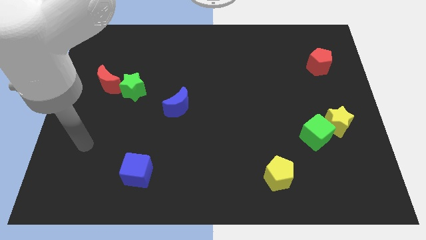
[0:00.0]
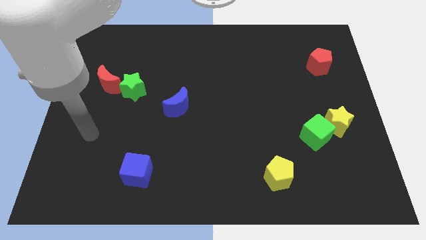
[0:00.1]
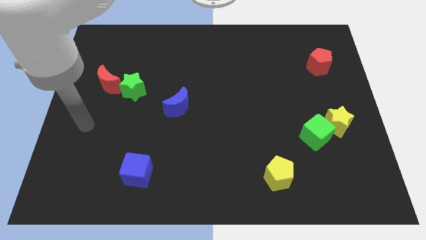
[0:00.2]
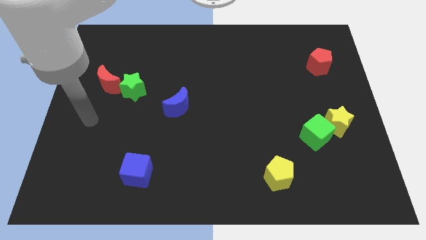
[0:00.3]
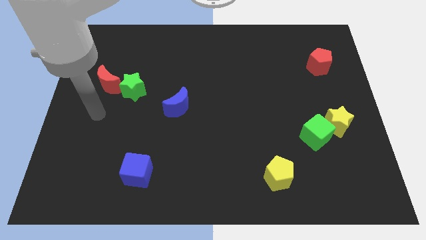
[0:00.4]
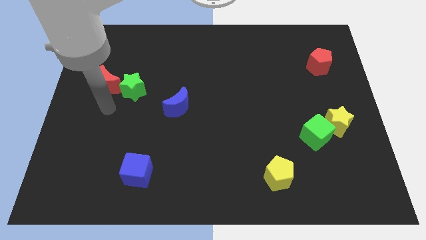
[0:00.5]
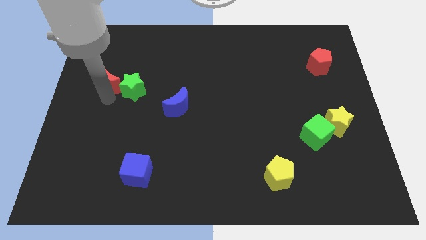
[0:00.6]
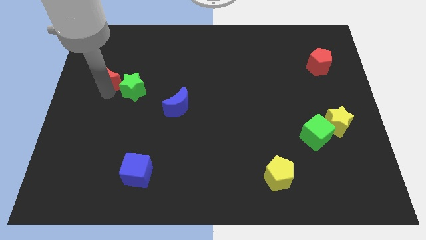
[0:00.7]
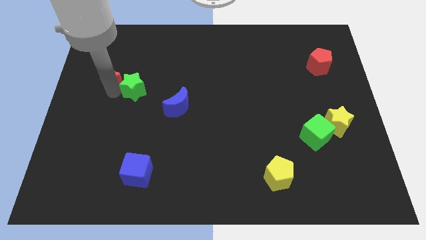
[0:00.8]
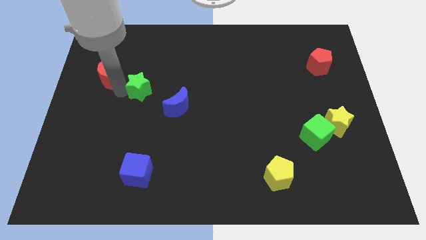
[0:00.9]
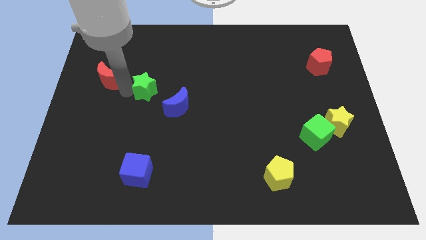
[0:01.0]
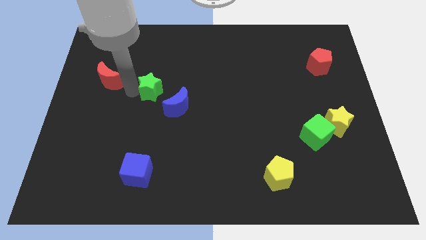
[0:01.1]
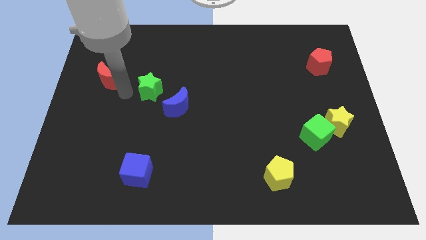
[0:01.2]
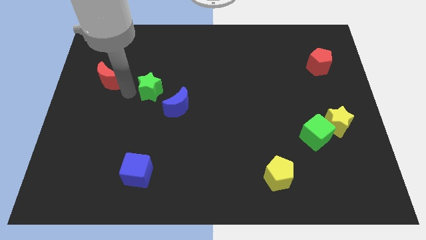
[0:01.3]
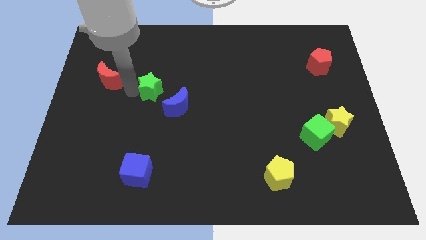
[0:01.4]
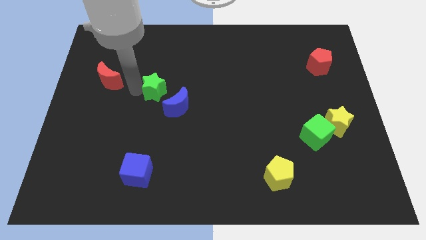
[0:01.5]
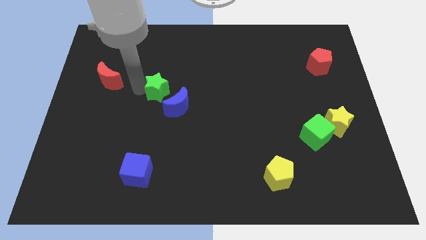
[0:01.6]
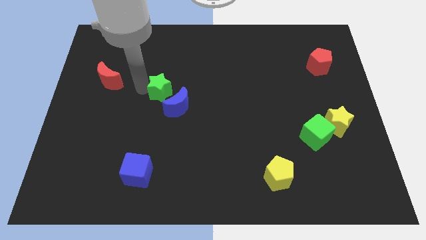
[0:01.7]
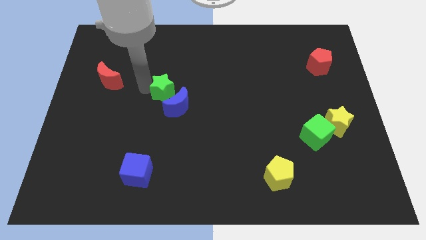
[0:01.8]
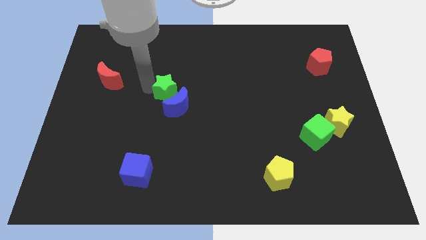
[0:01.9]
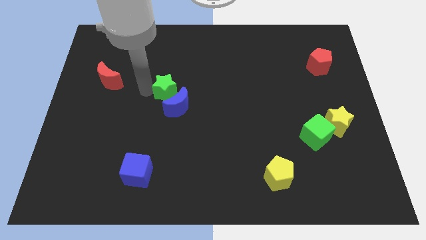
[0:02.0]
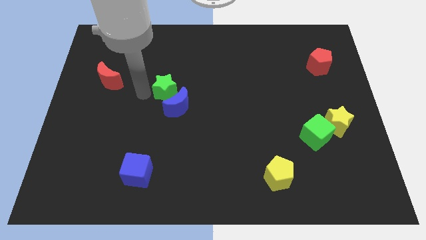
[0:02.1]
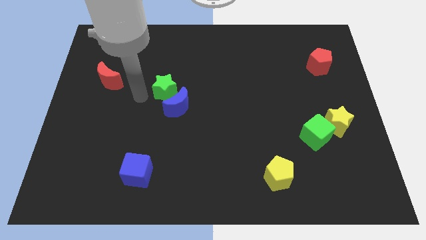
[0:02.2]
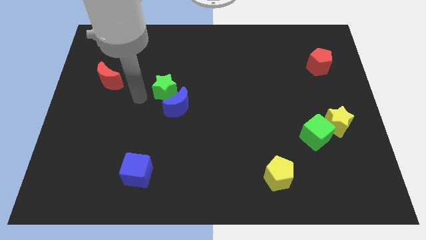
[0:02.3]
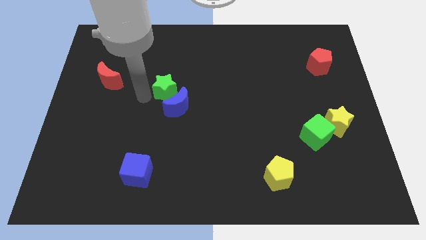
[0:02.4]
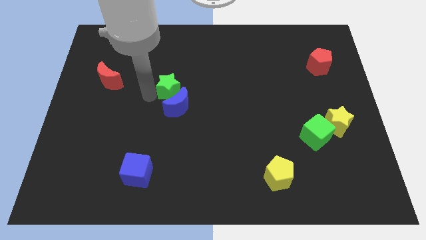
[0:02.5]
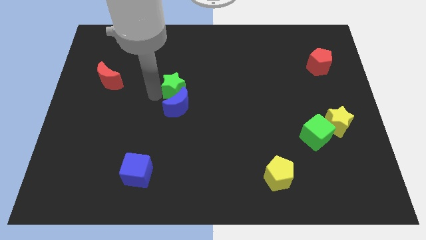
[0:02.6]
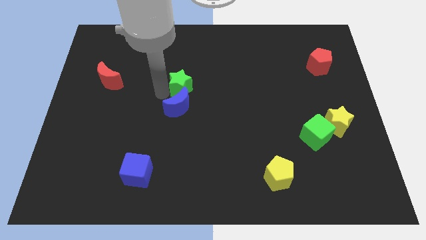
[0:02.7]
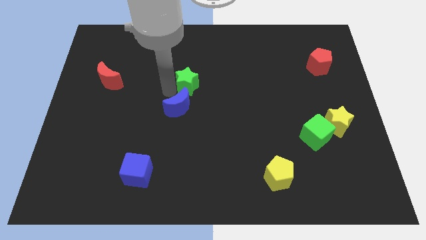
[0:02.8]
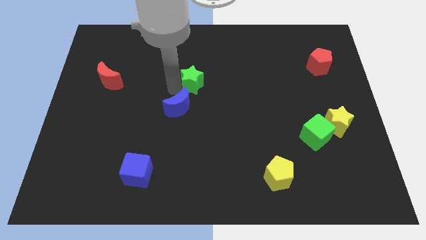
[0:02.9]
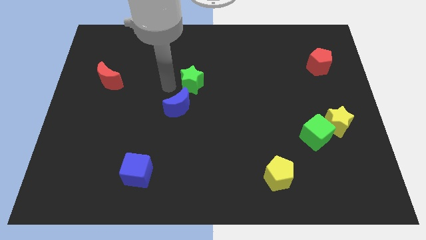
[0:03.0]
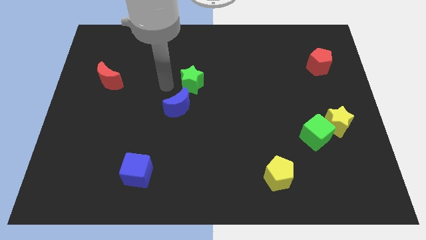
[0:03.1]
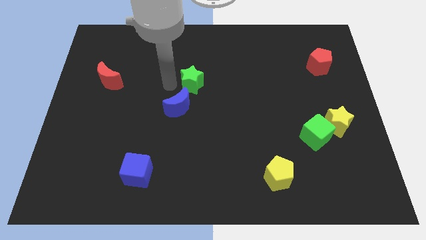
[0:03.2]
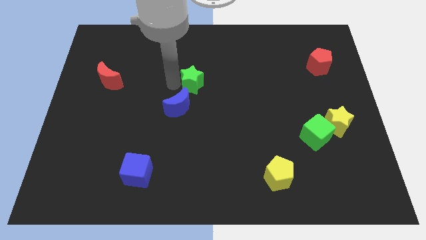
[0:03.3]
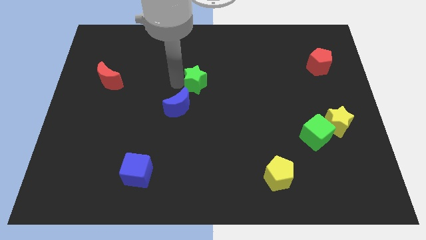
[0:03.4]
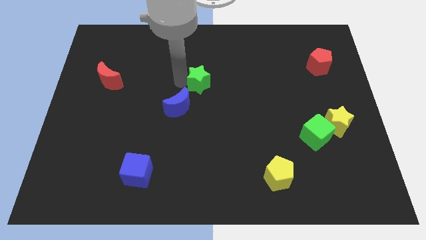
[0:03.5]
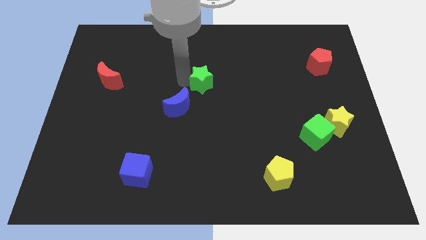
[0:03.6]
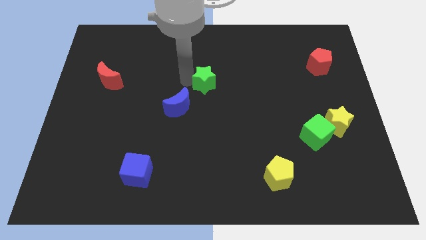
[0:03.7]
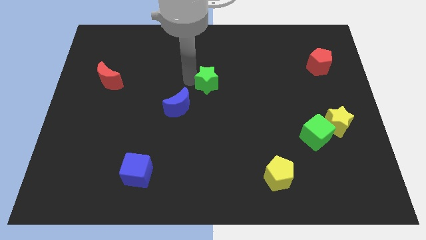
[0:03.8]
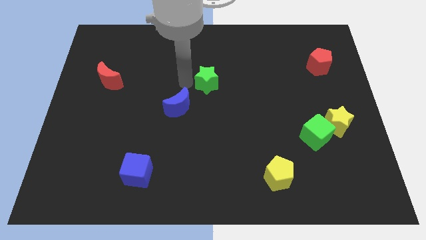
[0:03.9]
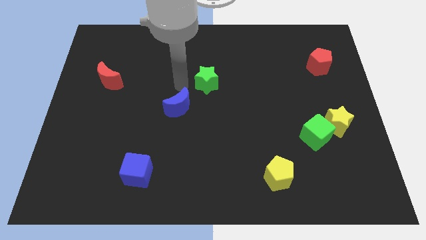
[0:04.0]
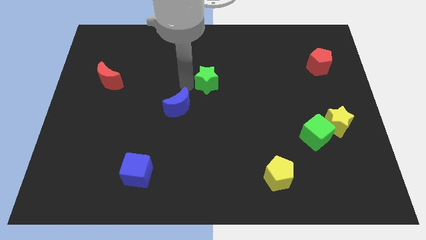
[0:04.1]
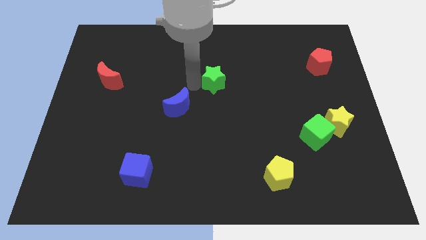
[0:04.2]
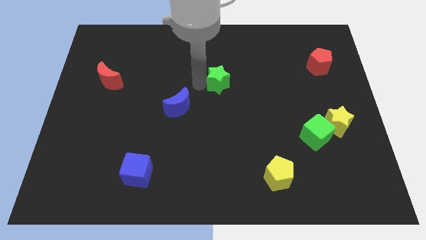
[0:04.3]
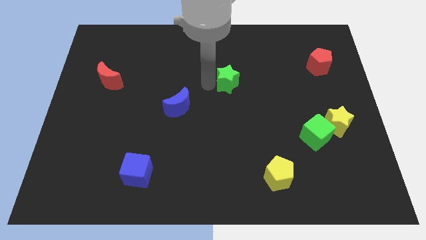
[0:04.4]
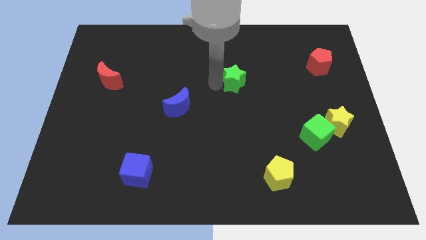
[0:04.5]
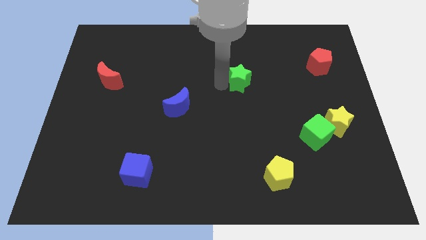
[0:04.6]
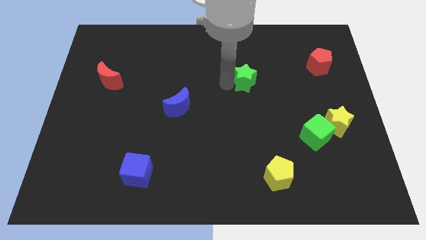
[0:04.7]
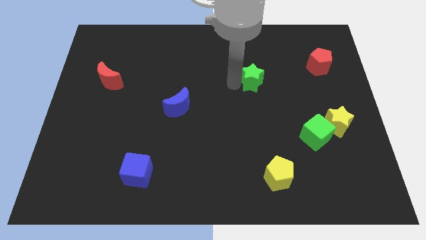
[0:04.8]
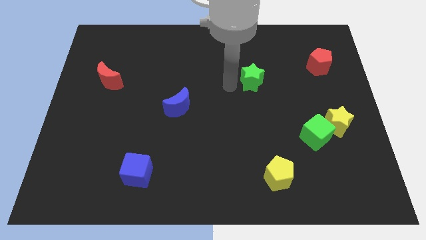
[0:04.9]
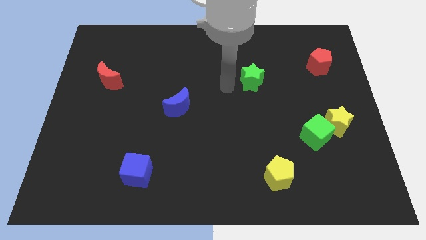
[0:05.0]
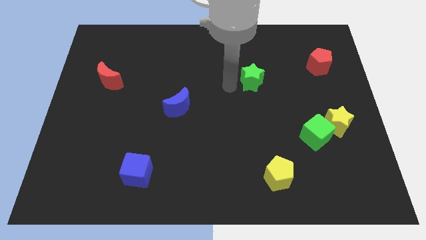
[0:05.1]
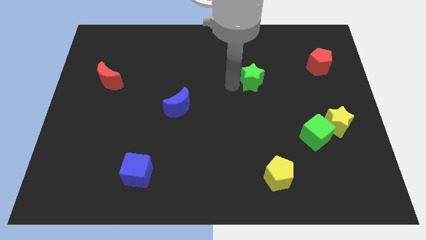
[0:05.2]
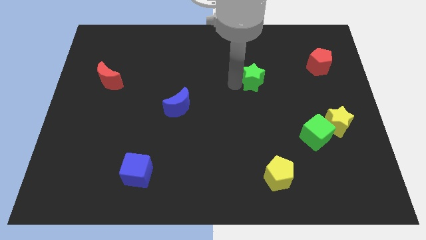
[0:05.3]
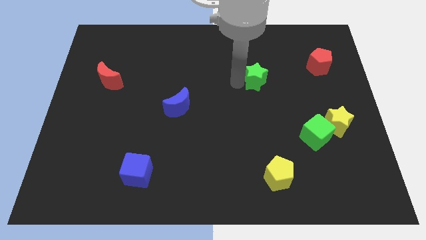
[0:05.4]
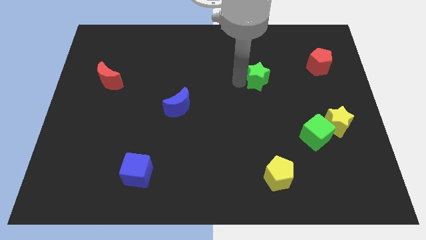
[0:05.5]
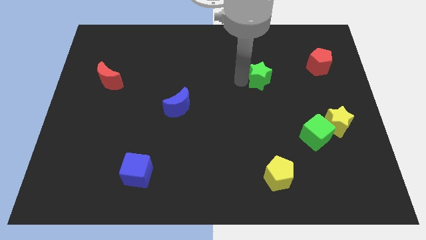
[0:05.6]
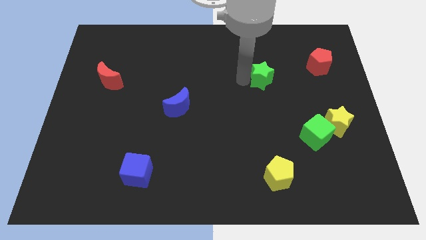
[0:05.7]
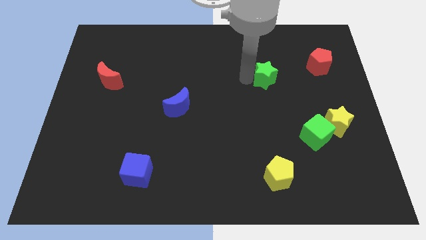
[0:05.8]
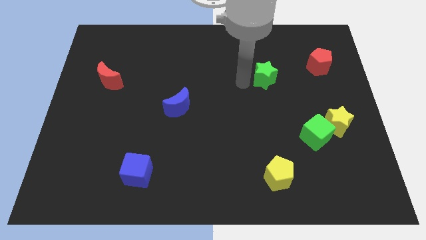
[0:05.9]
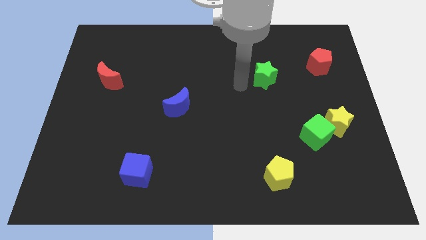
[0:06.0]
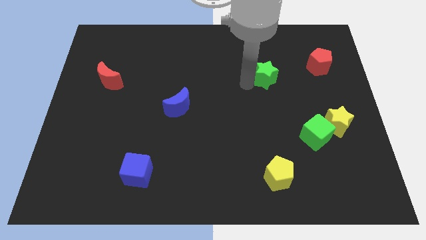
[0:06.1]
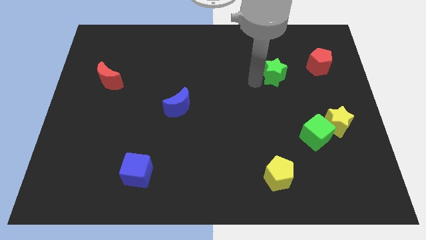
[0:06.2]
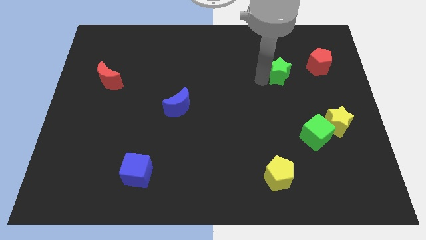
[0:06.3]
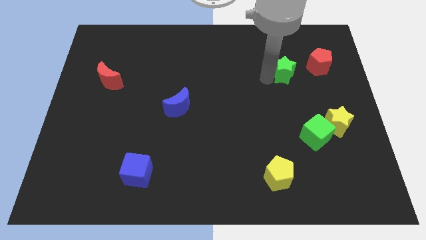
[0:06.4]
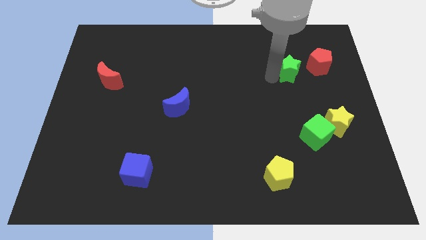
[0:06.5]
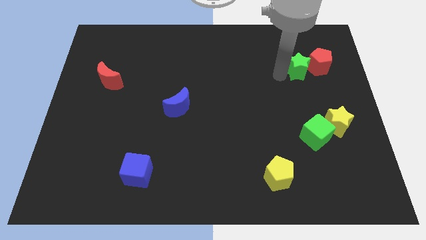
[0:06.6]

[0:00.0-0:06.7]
slide the green star next to the red pentagon
